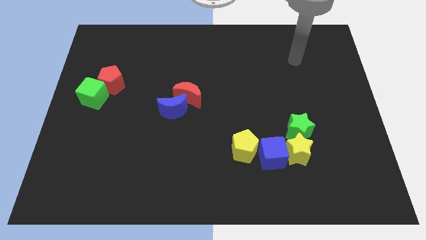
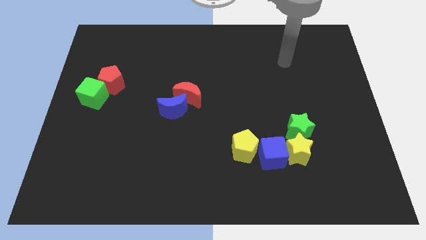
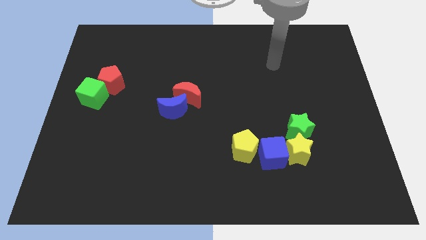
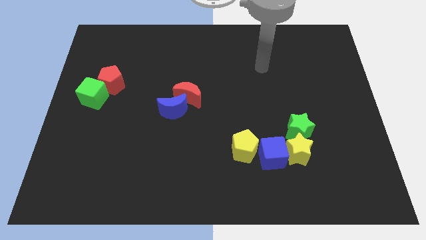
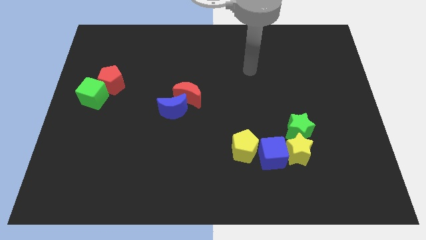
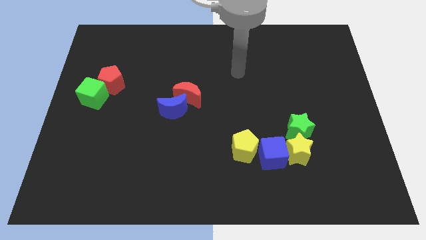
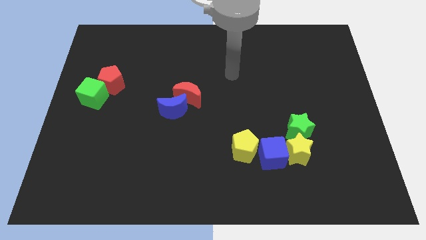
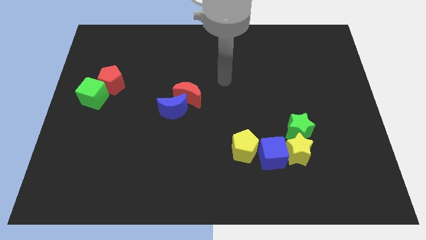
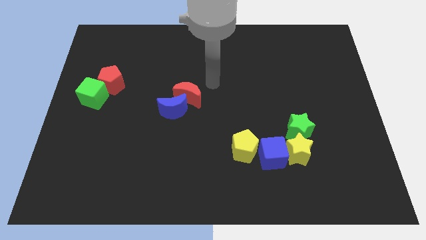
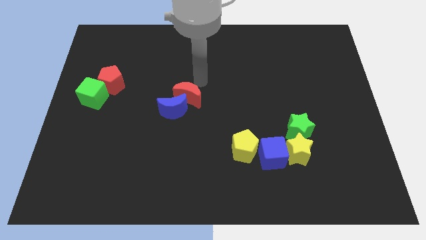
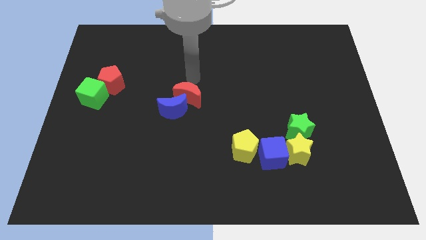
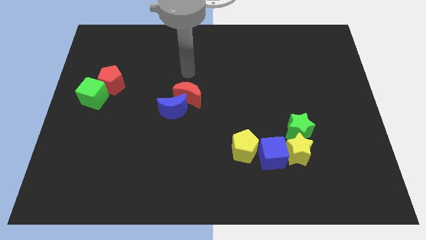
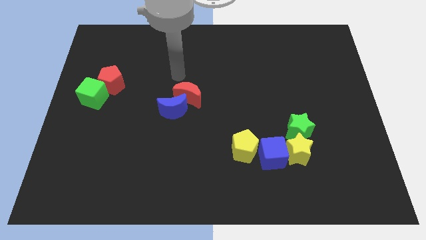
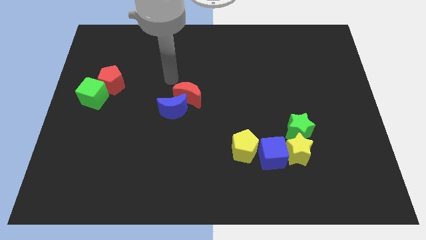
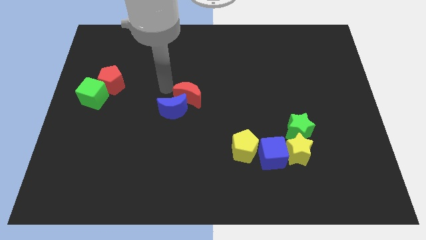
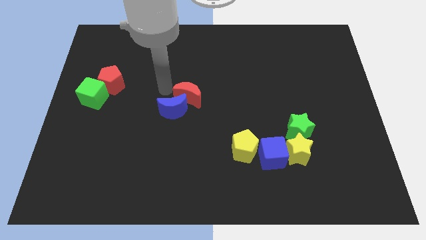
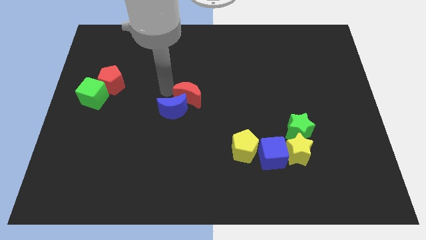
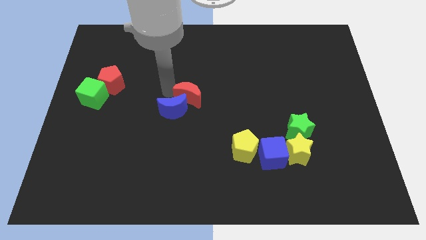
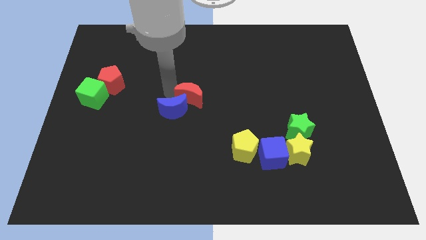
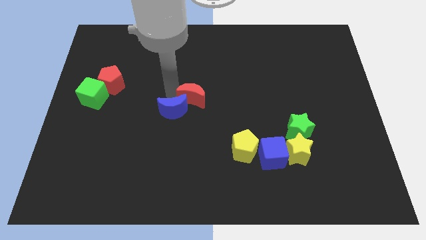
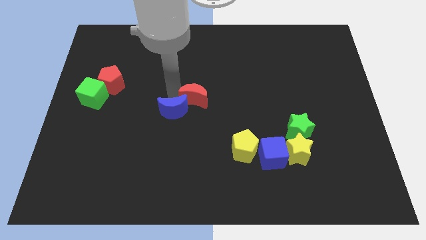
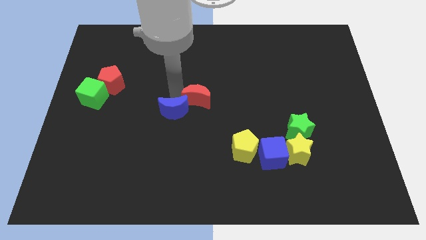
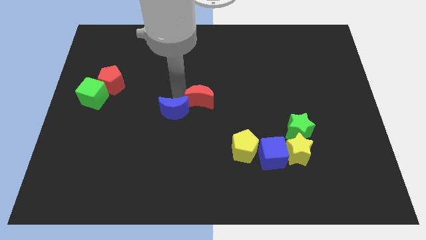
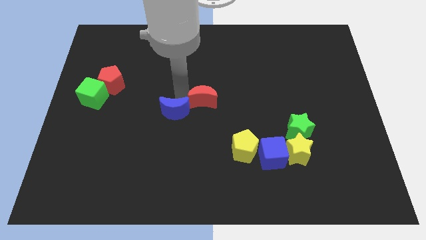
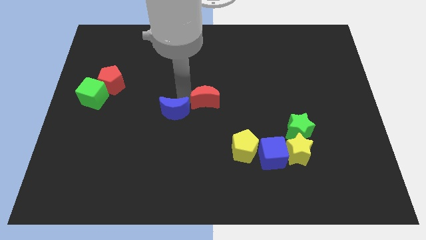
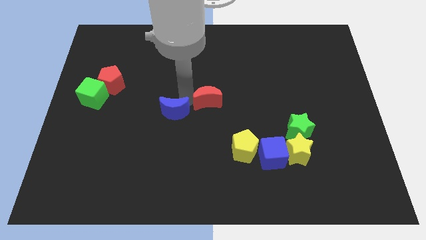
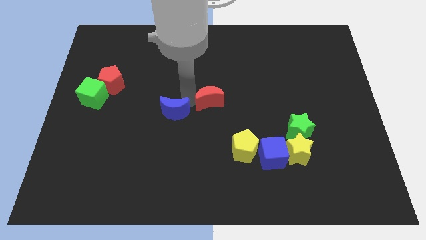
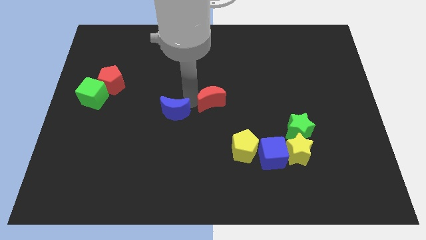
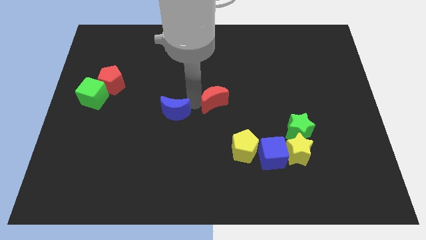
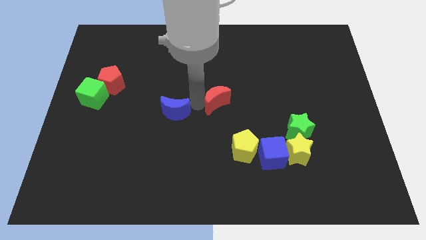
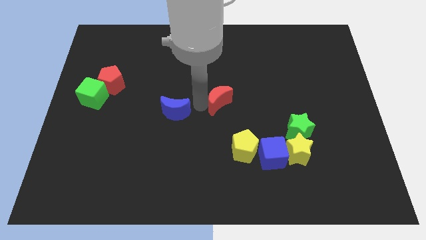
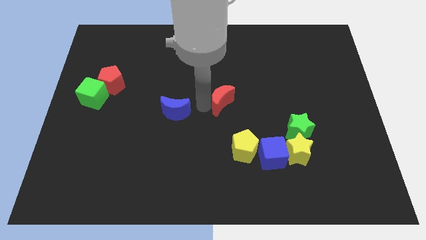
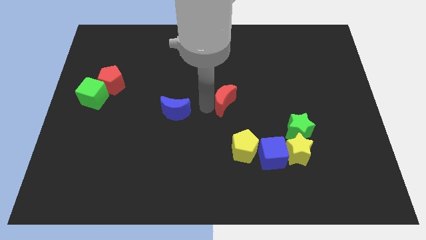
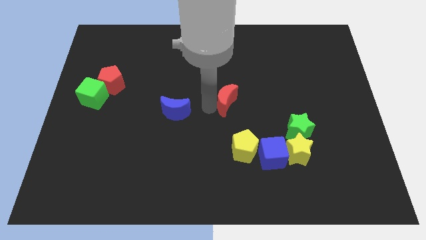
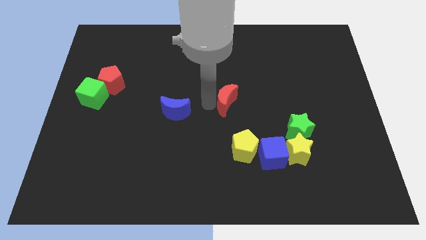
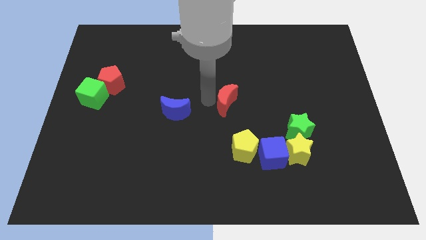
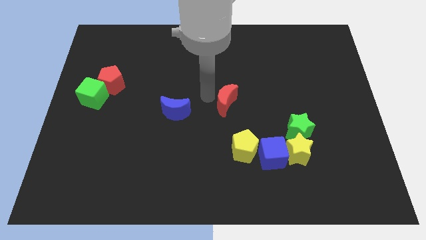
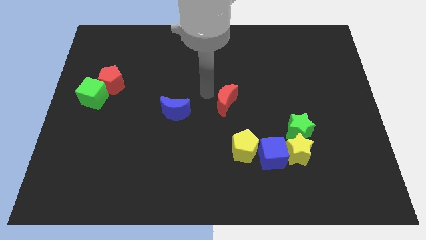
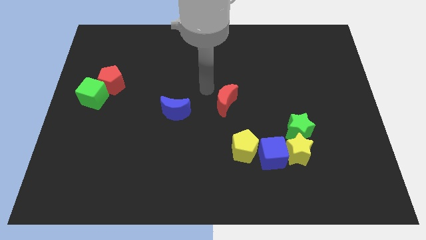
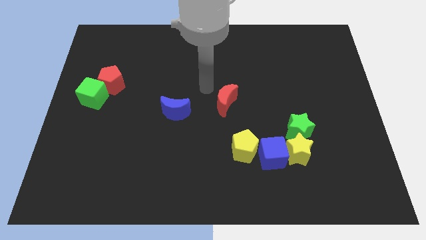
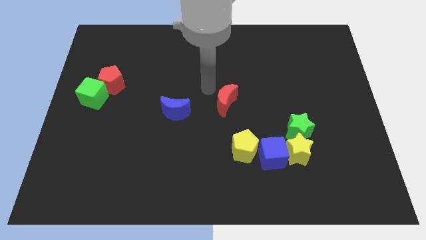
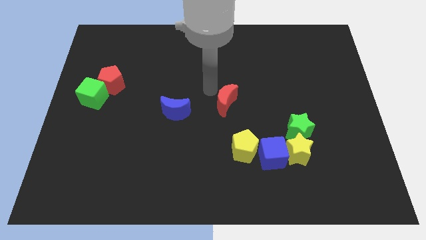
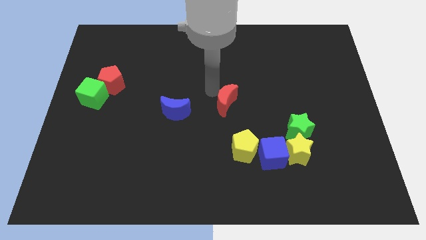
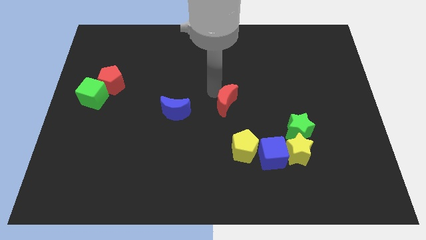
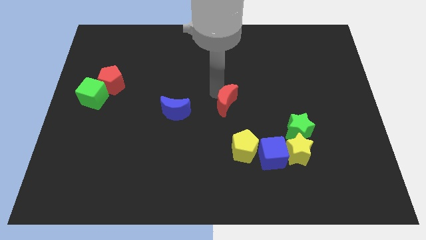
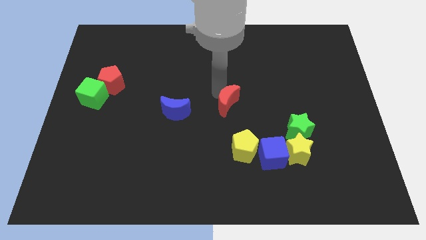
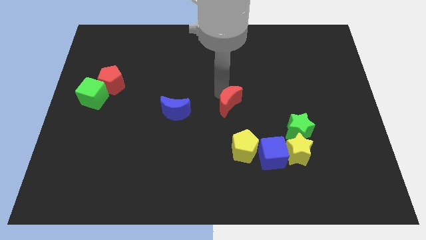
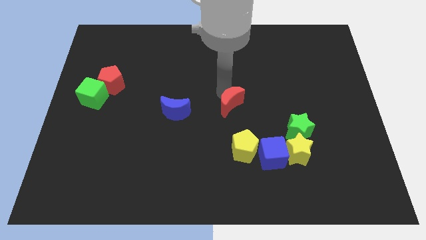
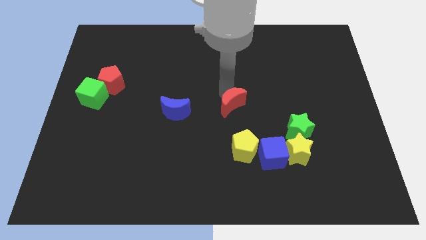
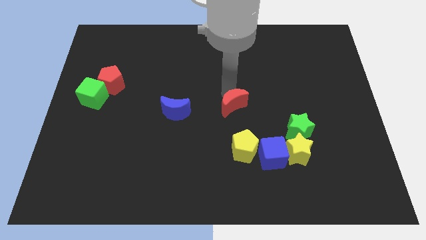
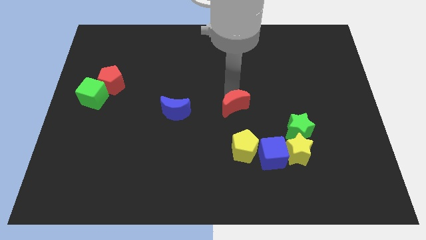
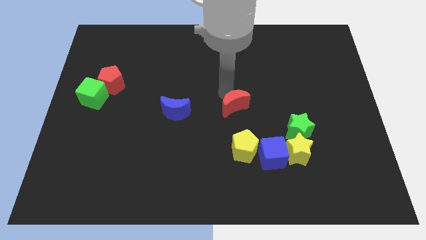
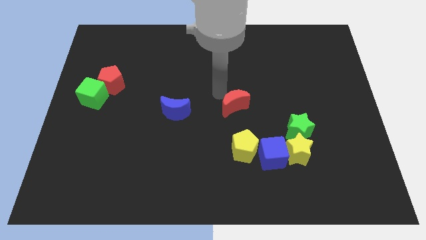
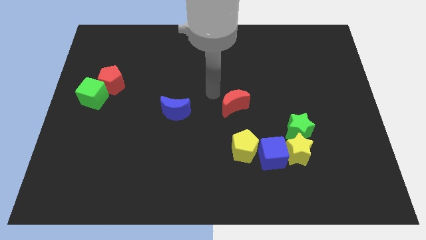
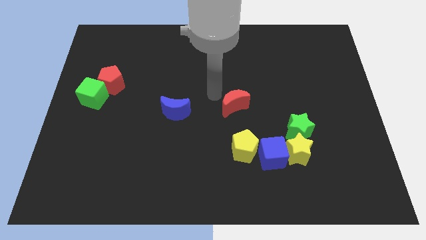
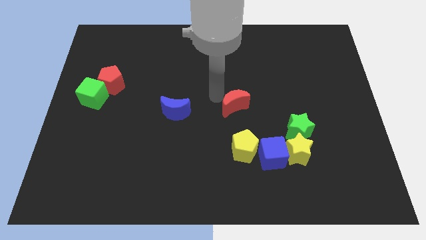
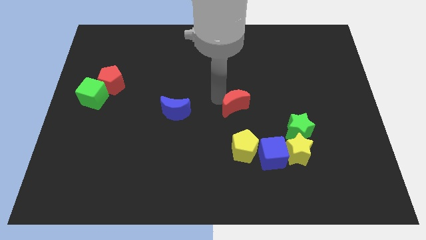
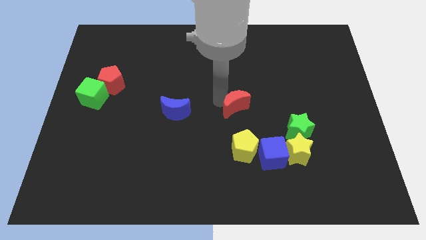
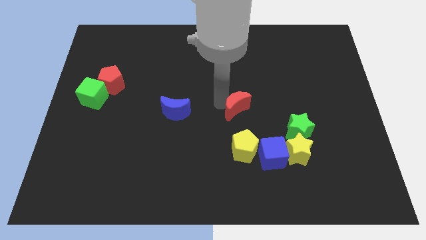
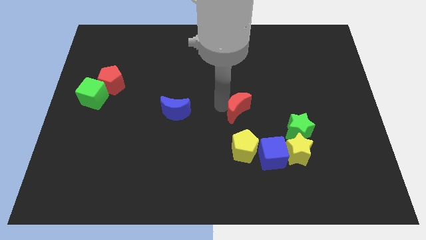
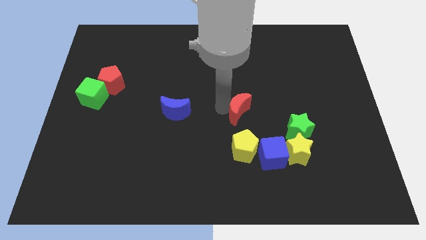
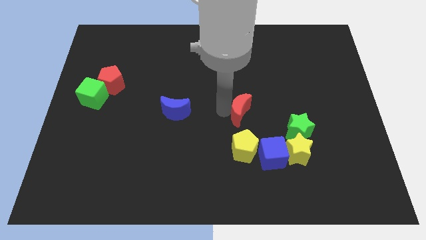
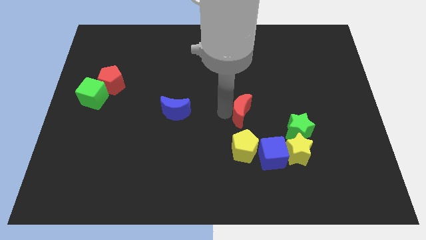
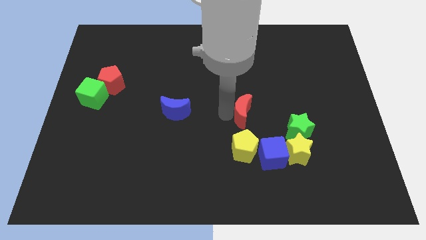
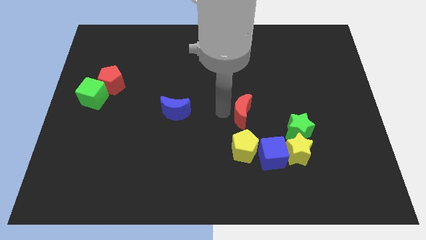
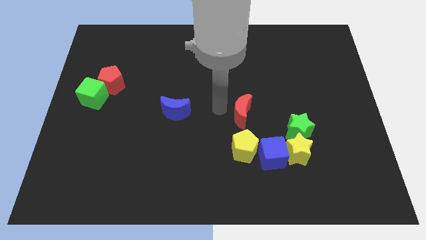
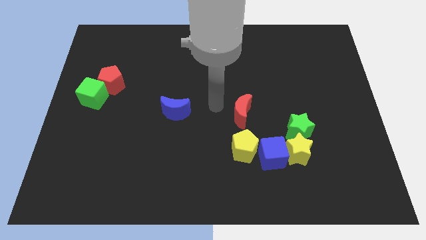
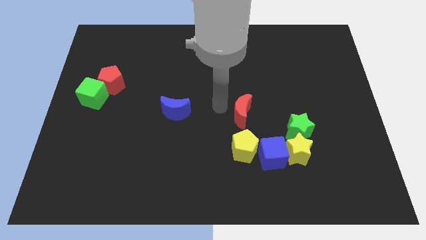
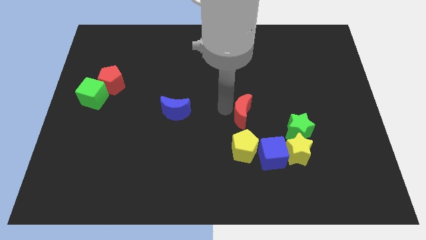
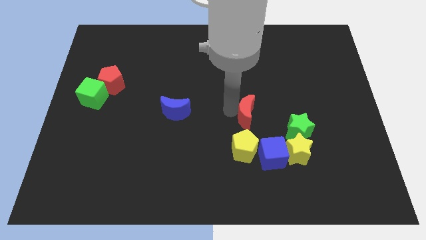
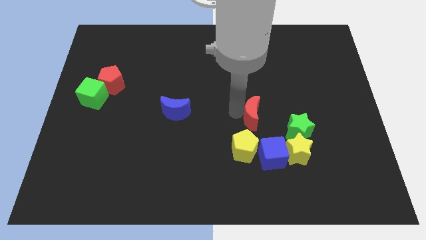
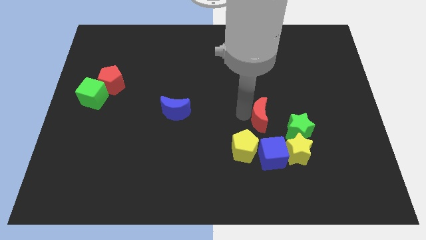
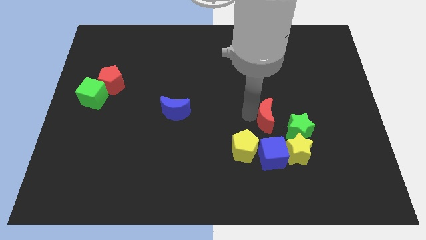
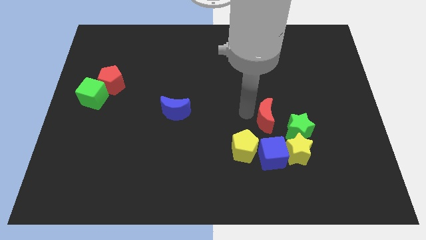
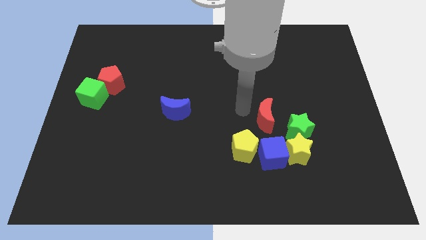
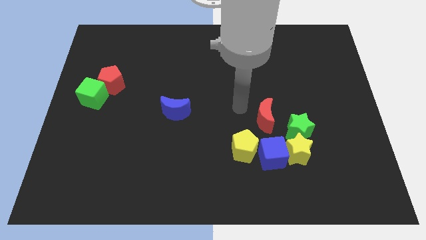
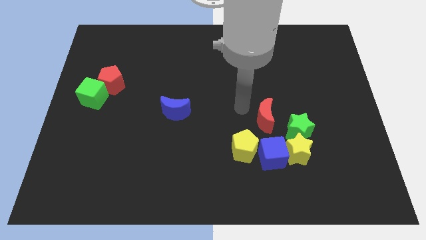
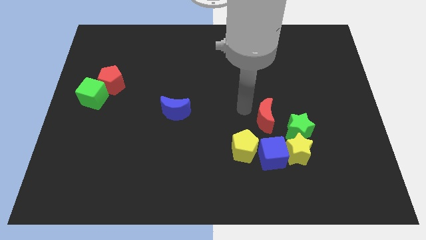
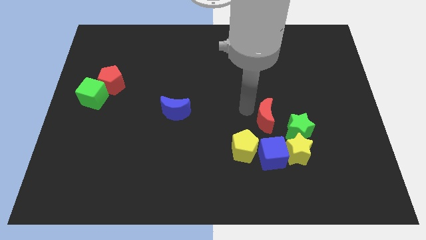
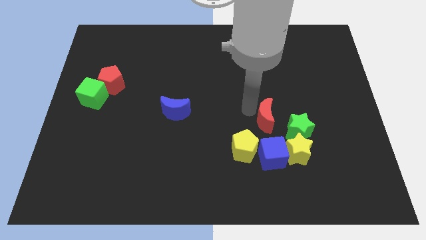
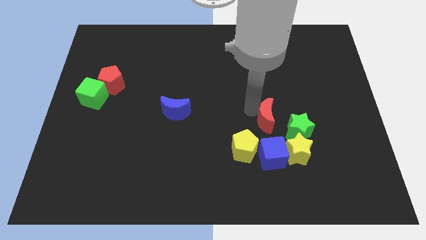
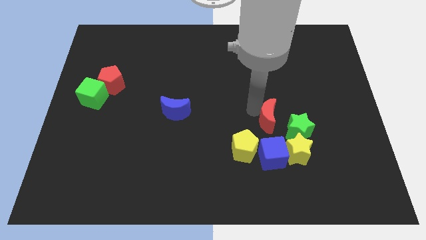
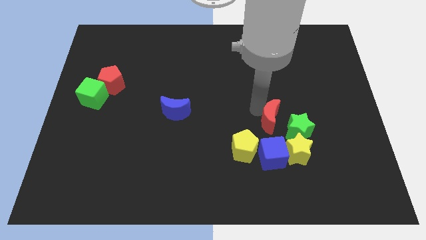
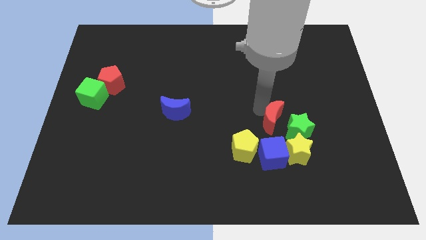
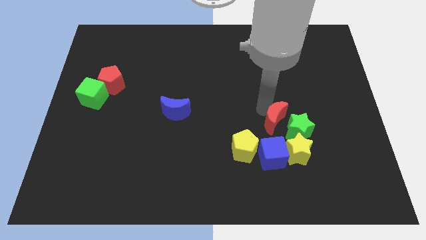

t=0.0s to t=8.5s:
push the red moon towards the green star
